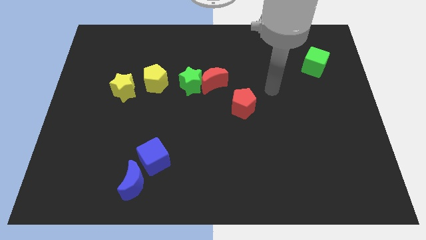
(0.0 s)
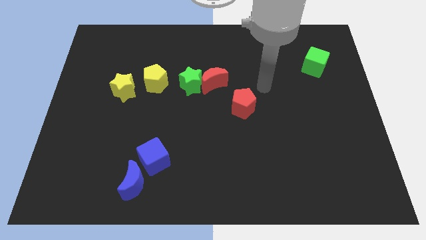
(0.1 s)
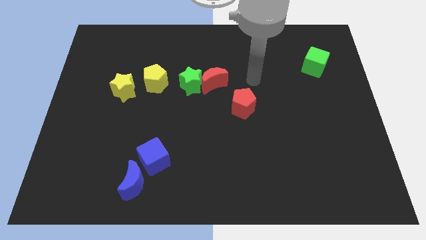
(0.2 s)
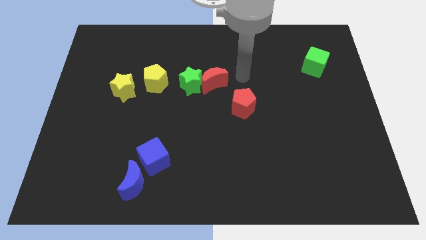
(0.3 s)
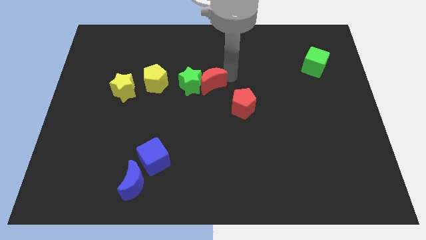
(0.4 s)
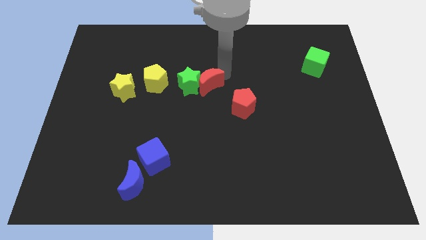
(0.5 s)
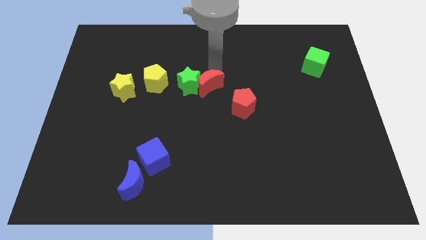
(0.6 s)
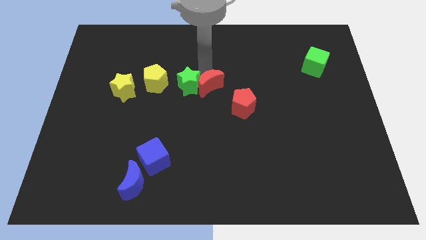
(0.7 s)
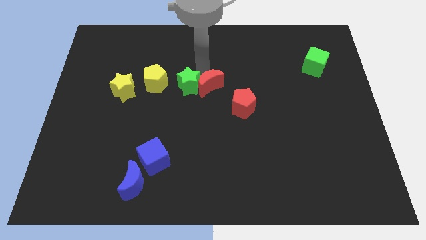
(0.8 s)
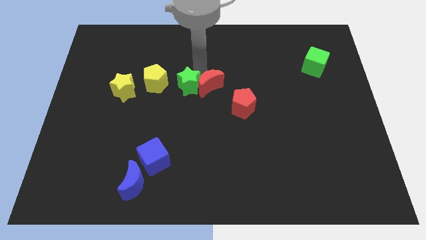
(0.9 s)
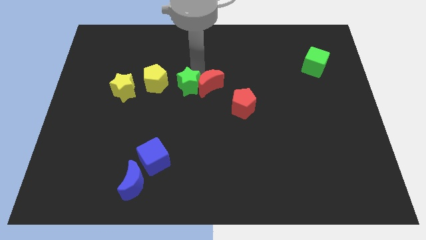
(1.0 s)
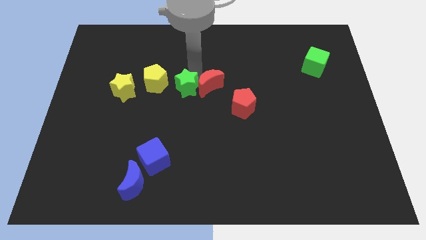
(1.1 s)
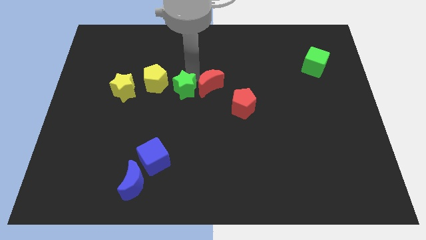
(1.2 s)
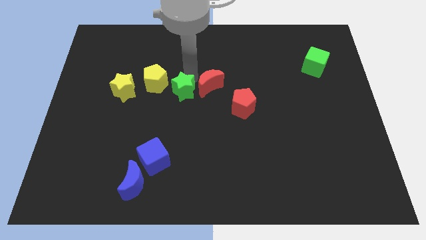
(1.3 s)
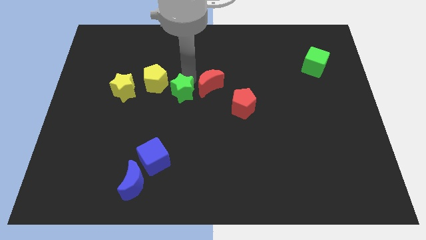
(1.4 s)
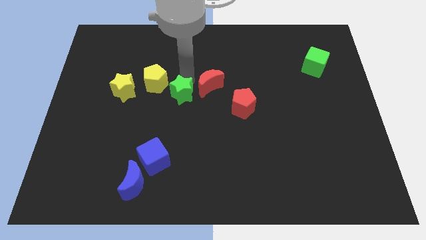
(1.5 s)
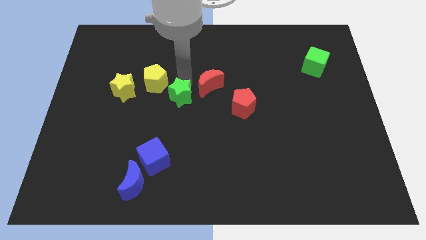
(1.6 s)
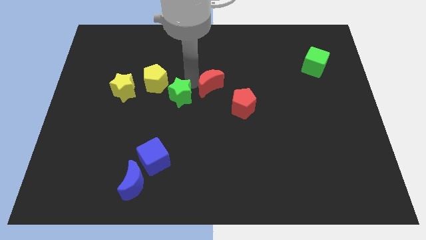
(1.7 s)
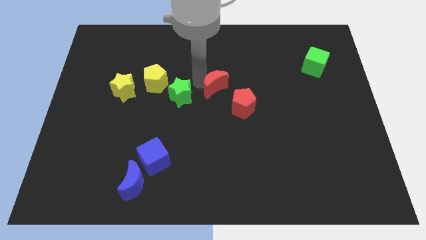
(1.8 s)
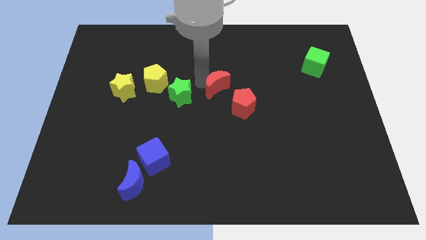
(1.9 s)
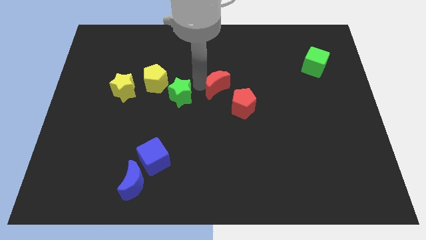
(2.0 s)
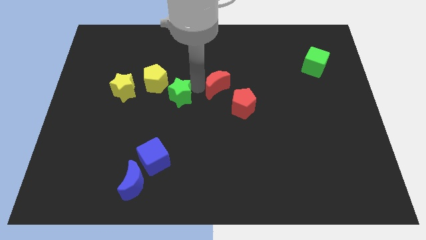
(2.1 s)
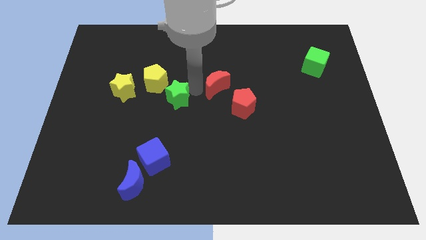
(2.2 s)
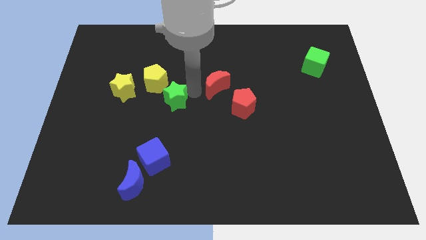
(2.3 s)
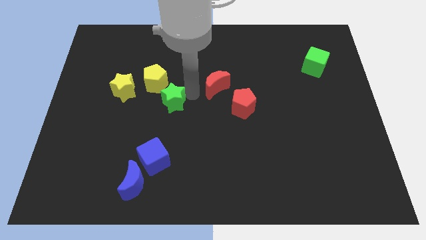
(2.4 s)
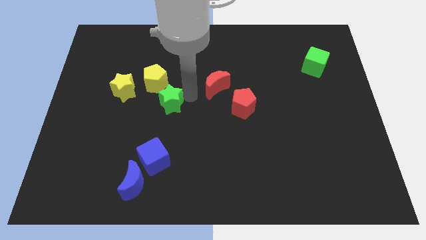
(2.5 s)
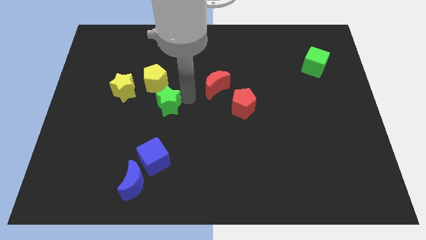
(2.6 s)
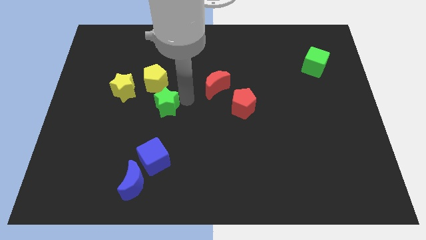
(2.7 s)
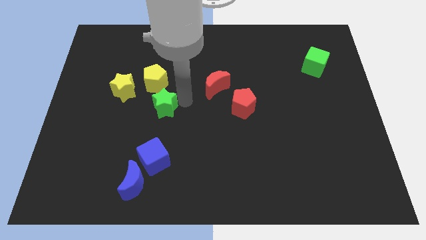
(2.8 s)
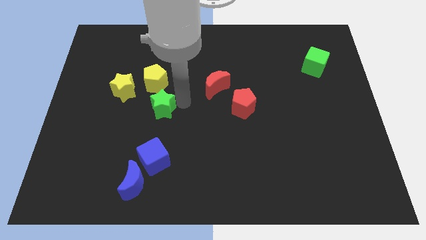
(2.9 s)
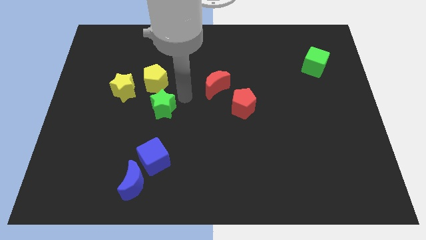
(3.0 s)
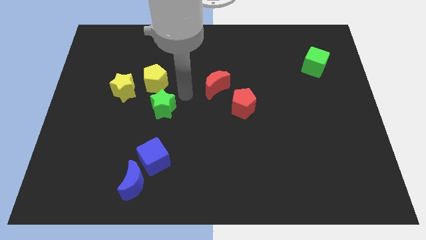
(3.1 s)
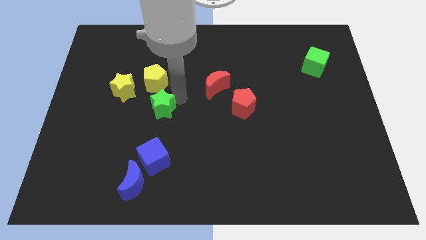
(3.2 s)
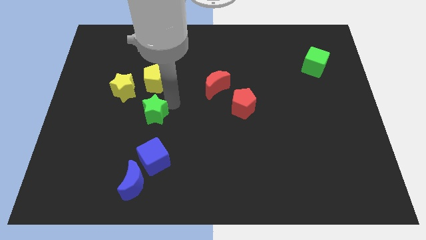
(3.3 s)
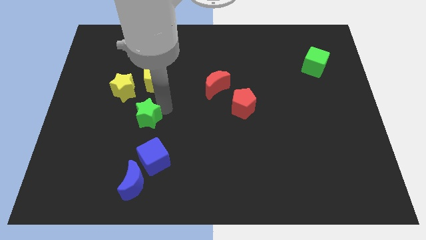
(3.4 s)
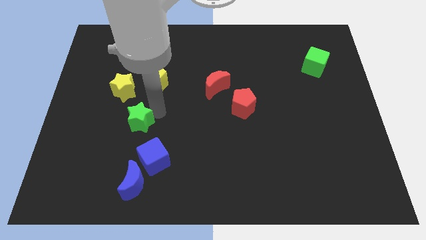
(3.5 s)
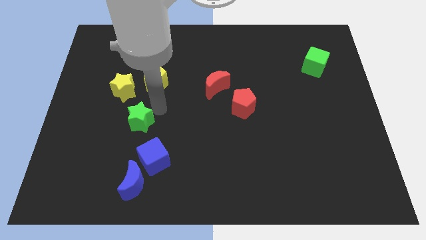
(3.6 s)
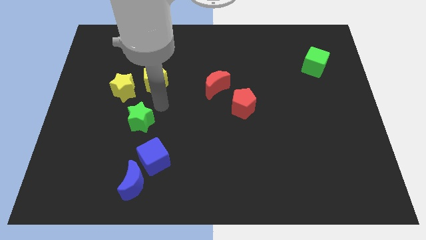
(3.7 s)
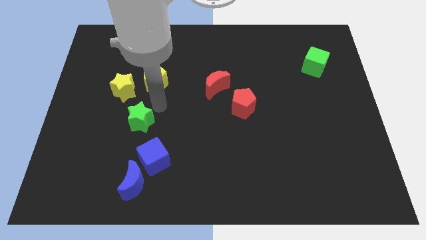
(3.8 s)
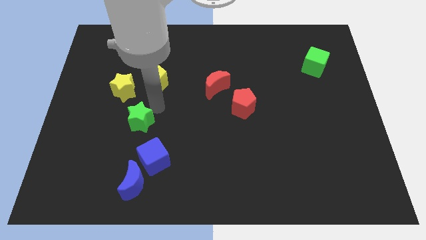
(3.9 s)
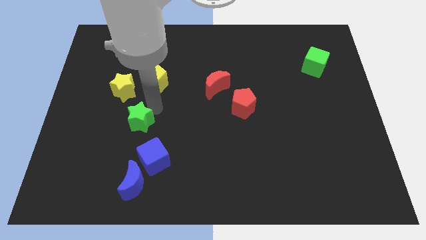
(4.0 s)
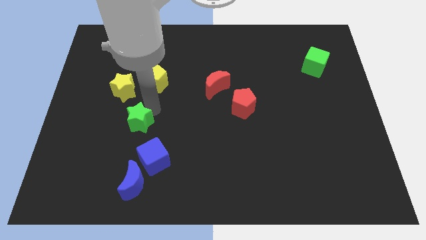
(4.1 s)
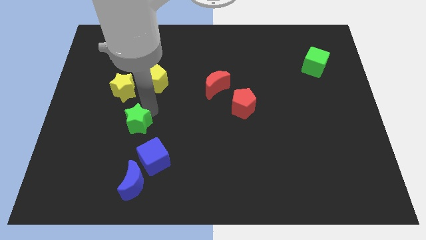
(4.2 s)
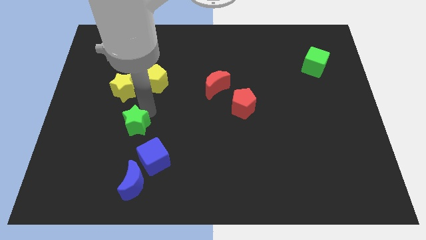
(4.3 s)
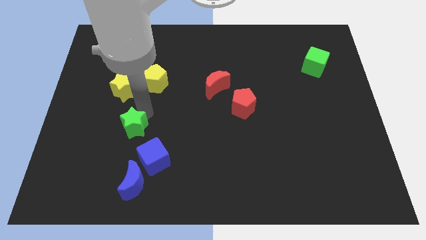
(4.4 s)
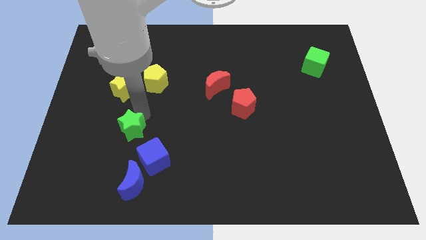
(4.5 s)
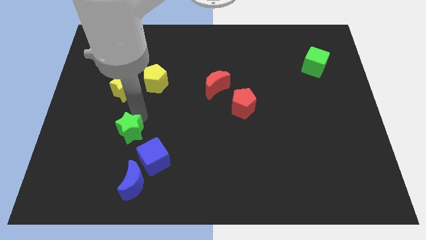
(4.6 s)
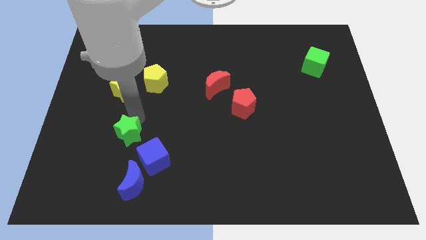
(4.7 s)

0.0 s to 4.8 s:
move the green star down and then left

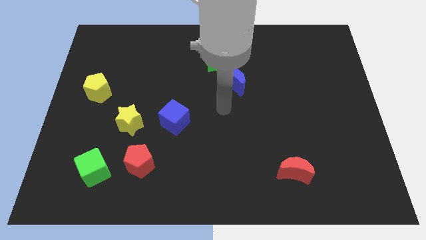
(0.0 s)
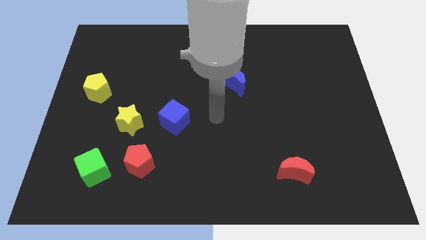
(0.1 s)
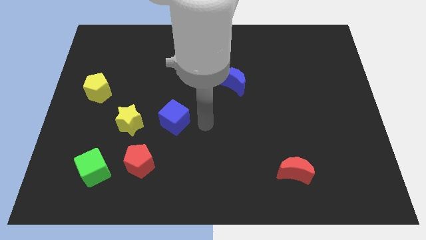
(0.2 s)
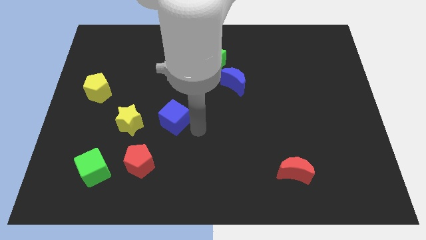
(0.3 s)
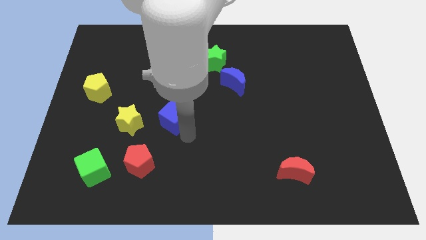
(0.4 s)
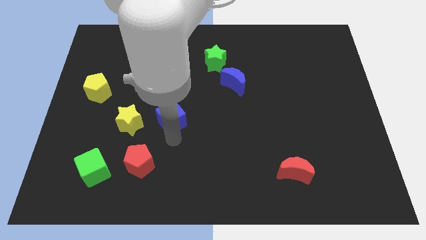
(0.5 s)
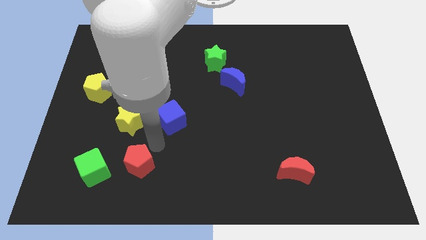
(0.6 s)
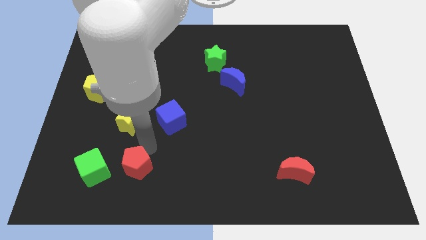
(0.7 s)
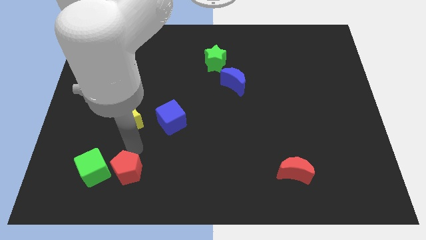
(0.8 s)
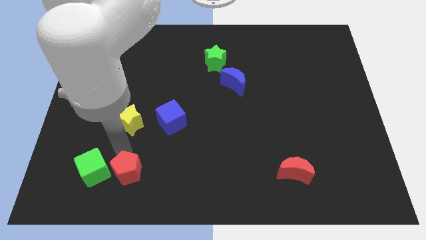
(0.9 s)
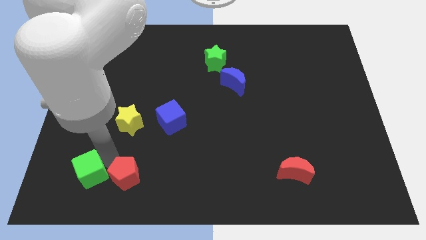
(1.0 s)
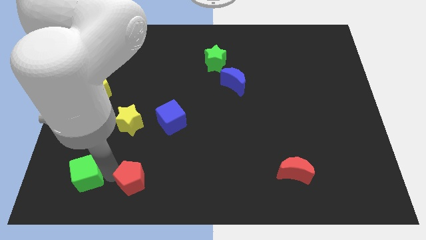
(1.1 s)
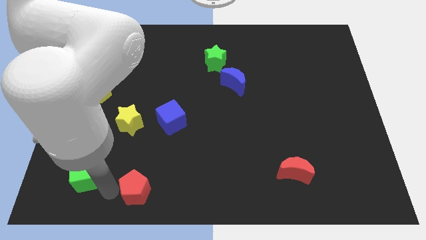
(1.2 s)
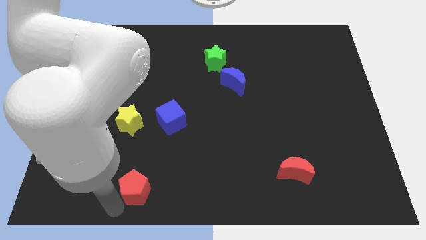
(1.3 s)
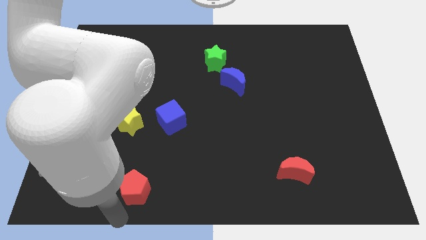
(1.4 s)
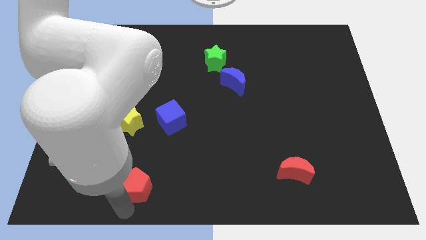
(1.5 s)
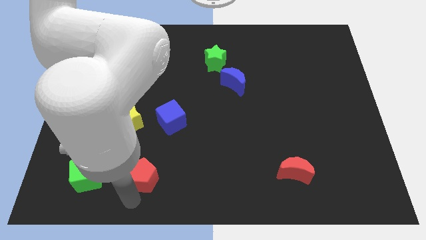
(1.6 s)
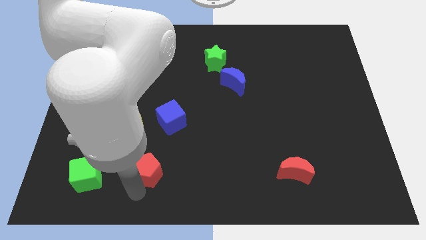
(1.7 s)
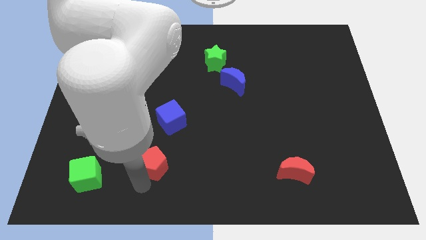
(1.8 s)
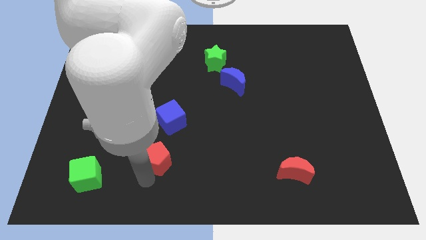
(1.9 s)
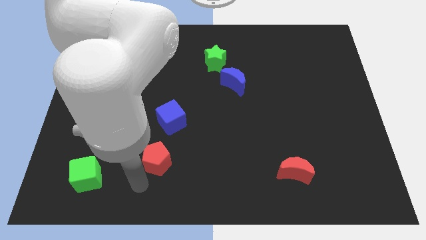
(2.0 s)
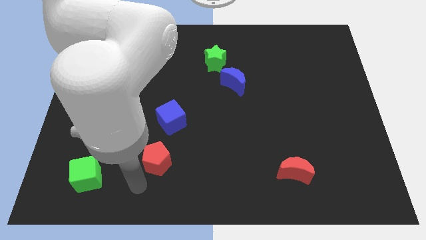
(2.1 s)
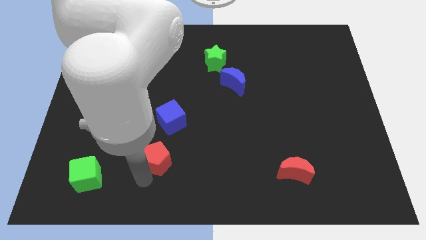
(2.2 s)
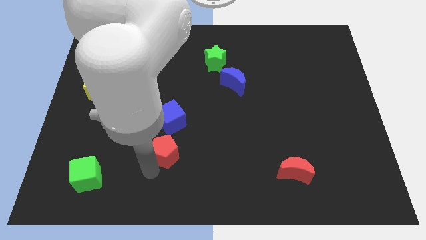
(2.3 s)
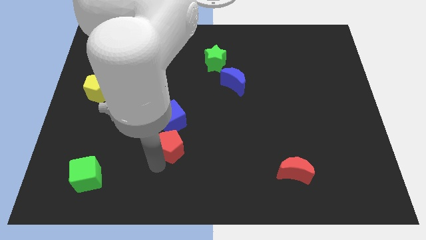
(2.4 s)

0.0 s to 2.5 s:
slightly move the red pentagon upwards and then right

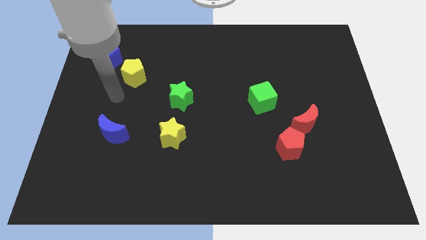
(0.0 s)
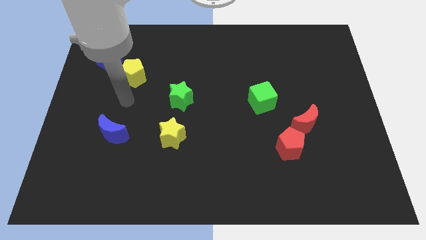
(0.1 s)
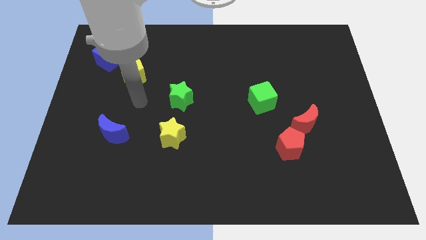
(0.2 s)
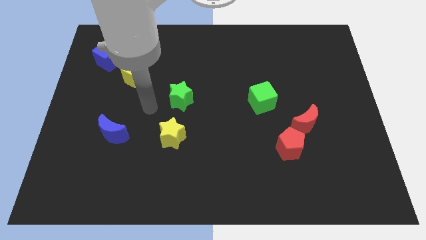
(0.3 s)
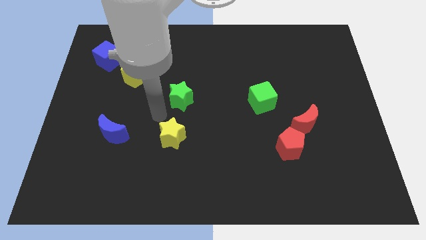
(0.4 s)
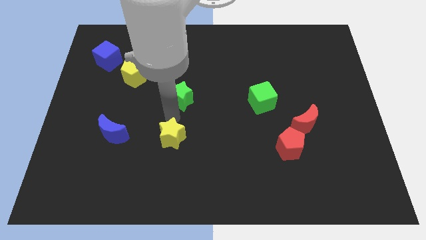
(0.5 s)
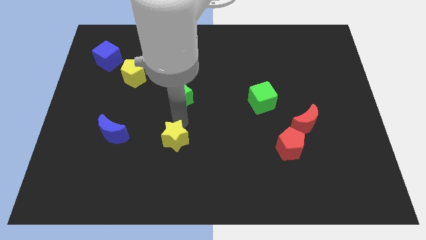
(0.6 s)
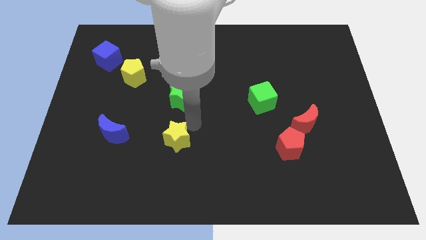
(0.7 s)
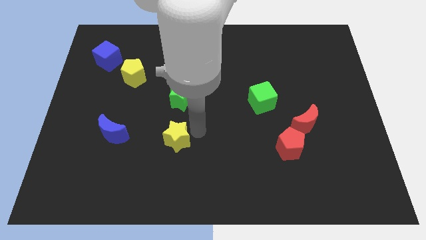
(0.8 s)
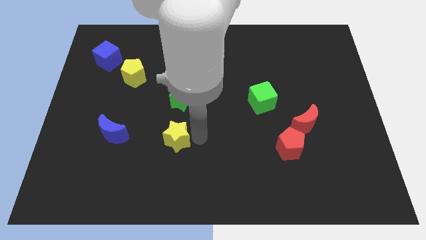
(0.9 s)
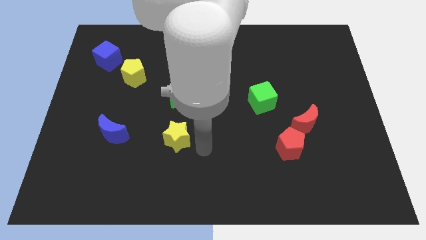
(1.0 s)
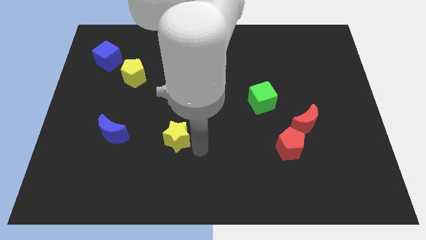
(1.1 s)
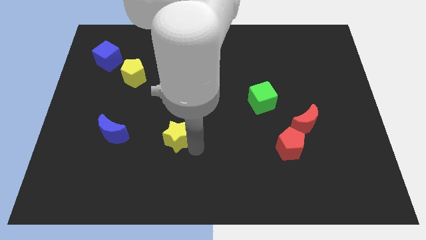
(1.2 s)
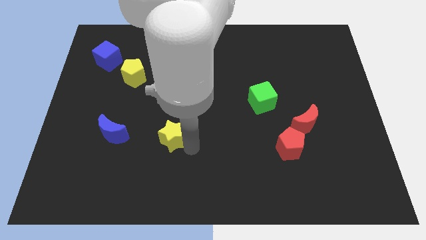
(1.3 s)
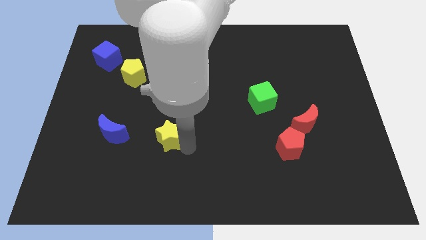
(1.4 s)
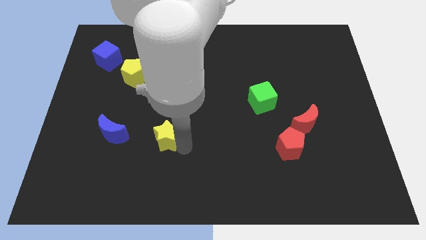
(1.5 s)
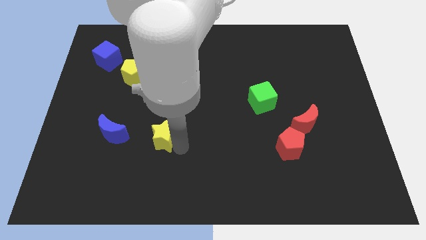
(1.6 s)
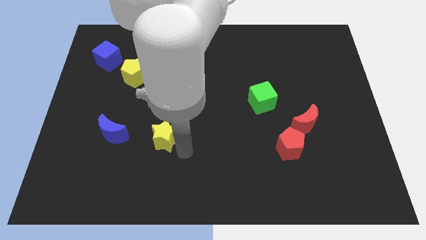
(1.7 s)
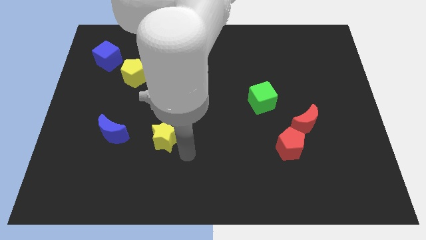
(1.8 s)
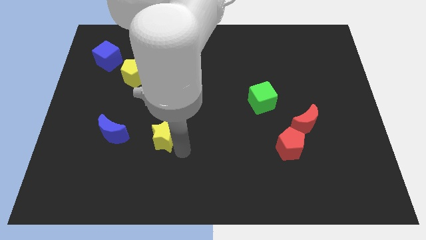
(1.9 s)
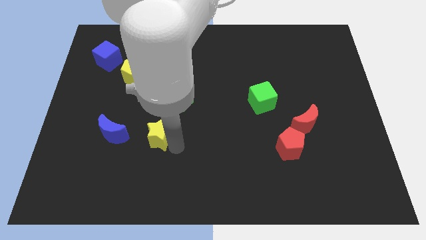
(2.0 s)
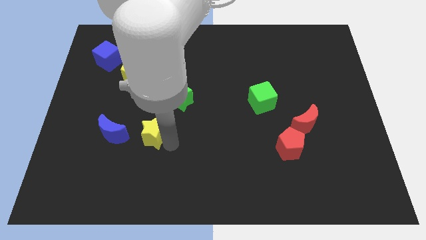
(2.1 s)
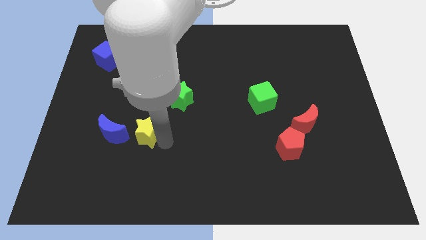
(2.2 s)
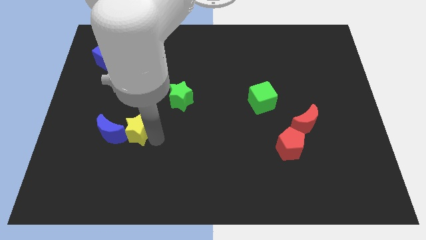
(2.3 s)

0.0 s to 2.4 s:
slide the yellow star somewhat left
